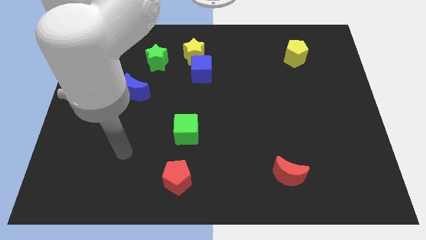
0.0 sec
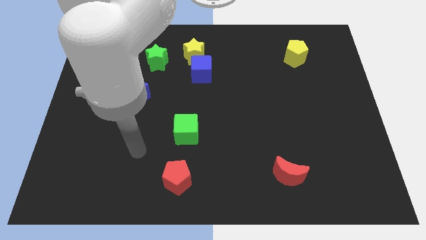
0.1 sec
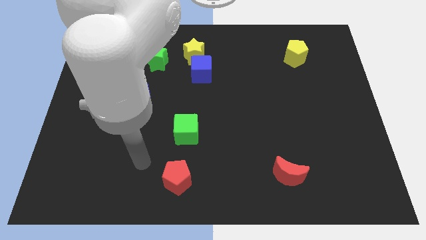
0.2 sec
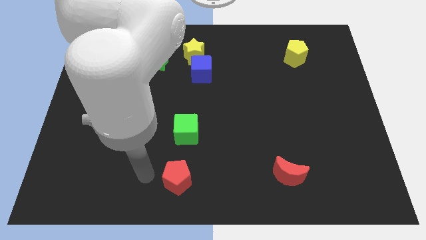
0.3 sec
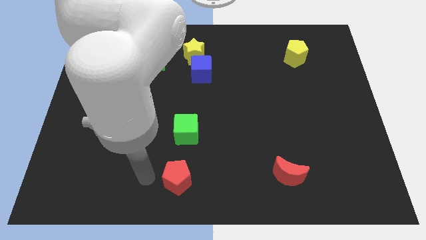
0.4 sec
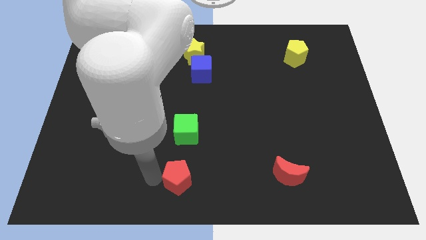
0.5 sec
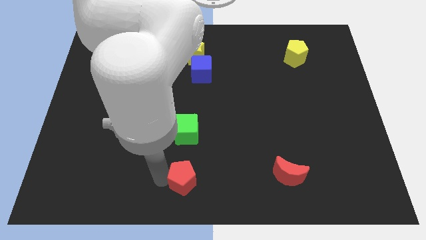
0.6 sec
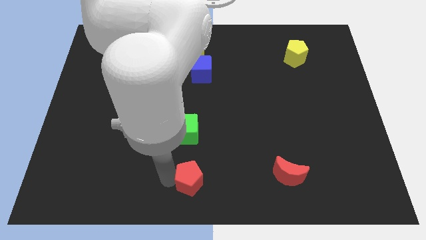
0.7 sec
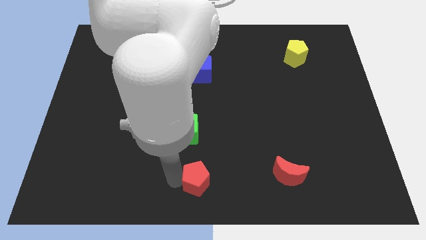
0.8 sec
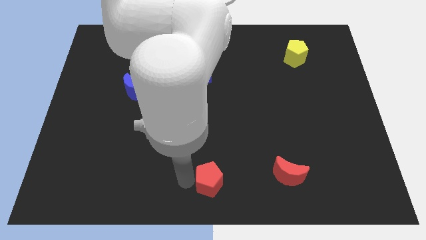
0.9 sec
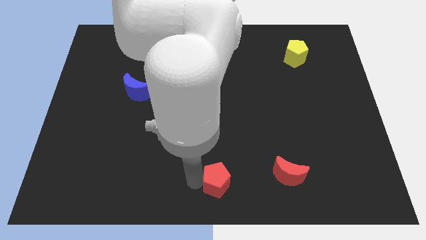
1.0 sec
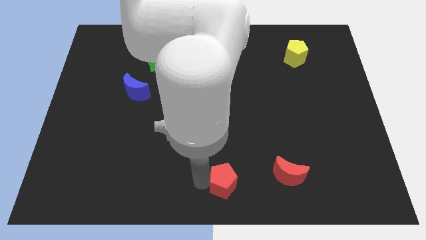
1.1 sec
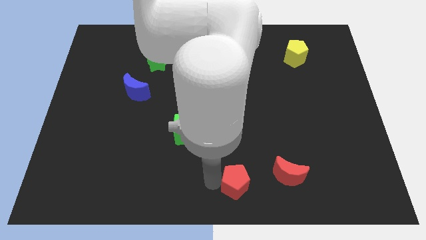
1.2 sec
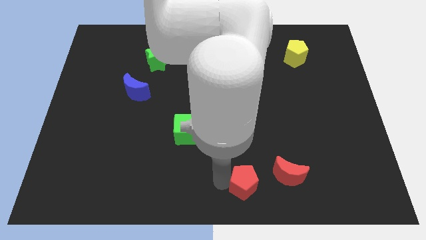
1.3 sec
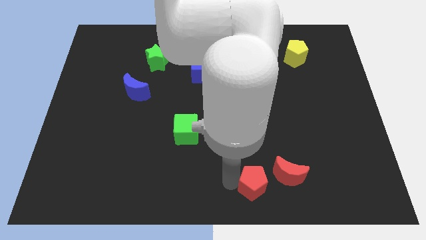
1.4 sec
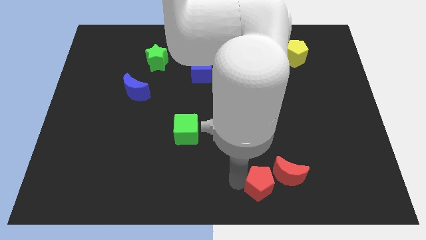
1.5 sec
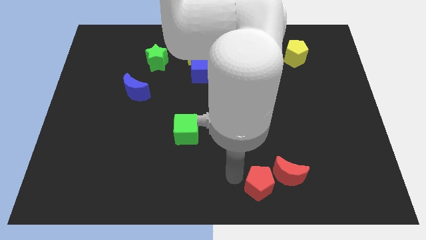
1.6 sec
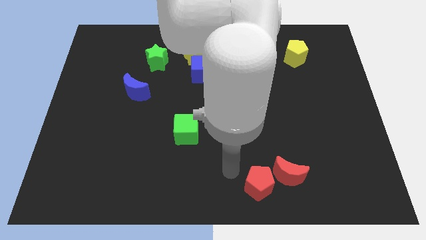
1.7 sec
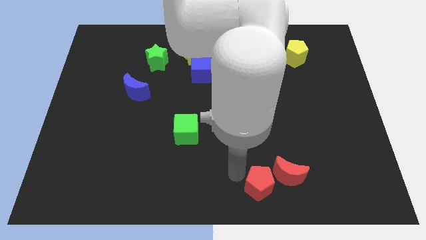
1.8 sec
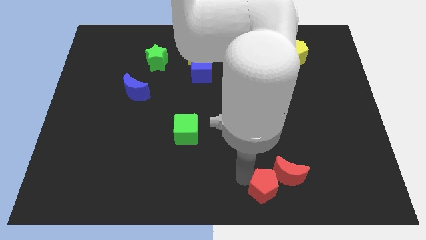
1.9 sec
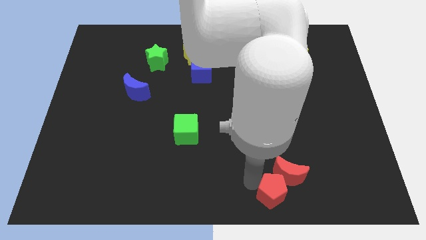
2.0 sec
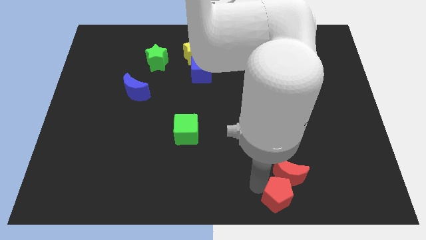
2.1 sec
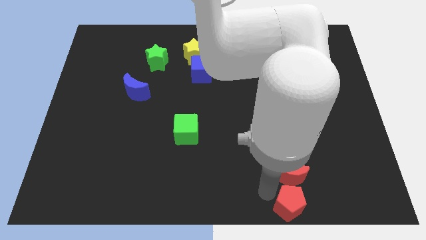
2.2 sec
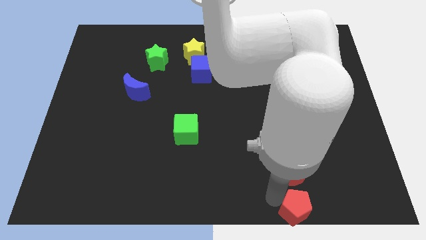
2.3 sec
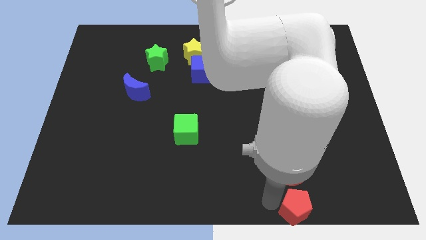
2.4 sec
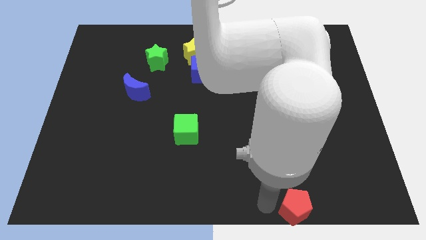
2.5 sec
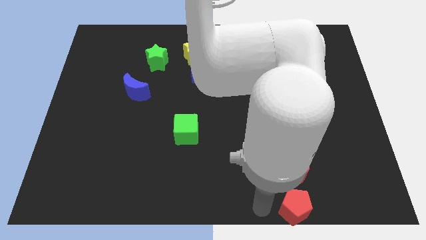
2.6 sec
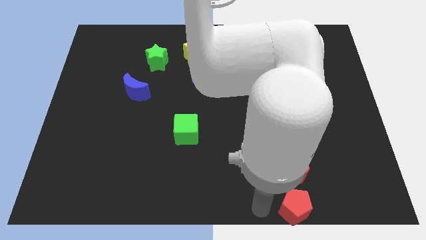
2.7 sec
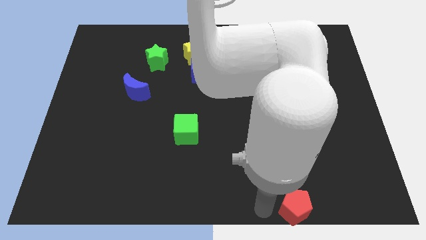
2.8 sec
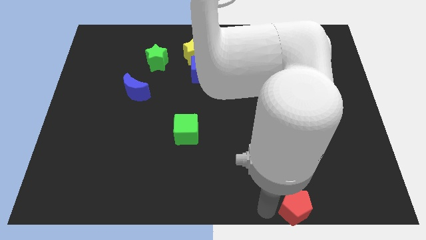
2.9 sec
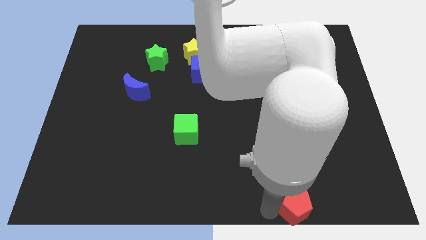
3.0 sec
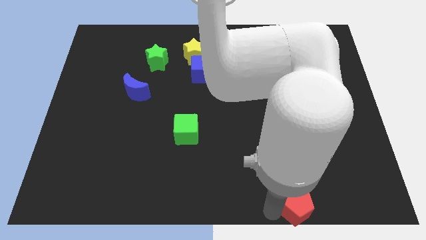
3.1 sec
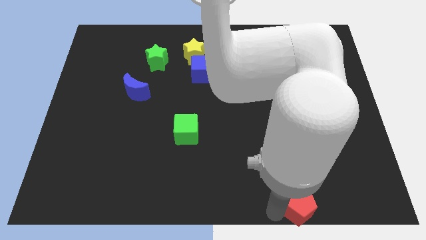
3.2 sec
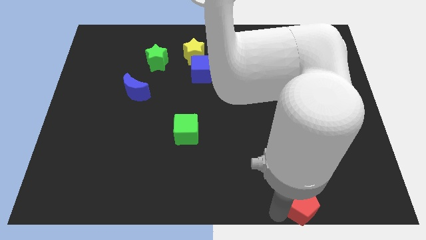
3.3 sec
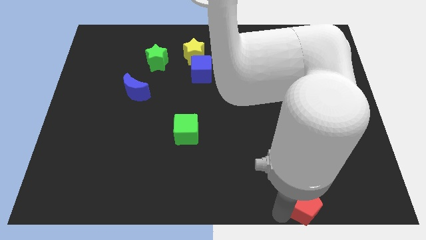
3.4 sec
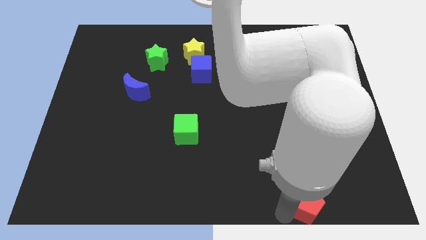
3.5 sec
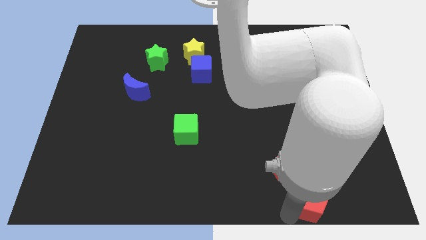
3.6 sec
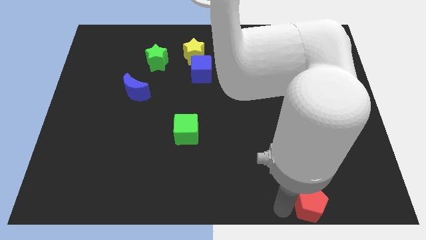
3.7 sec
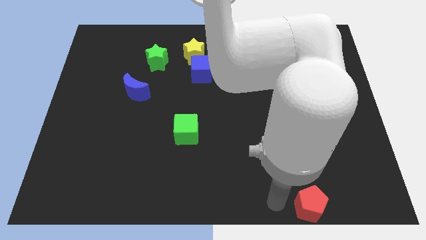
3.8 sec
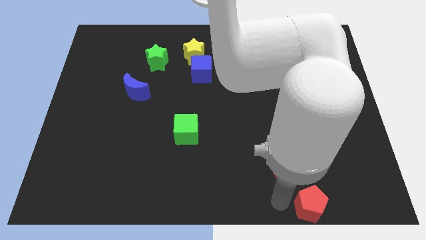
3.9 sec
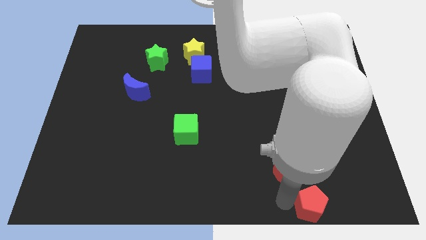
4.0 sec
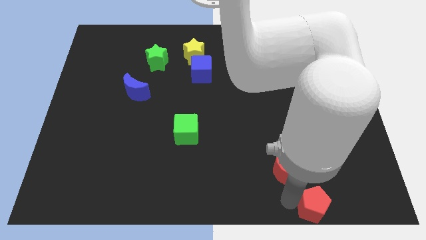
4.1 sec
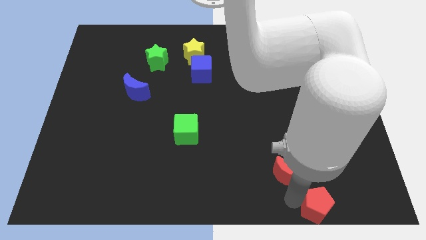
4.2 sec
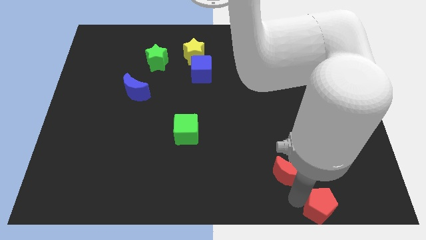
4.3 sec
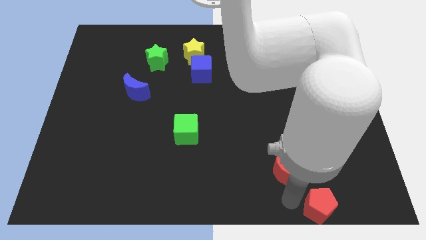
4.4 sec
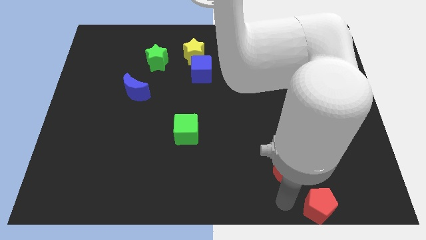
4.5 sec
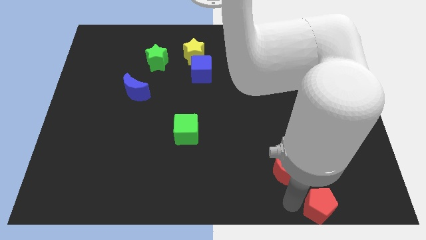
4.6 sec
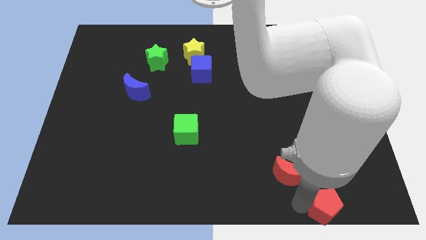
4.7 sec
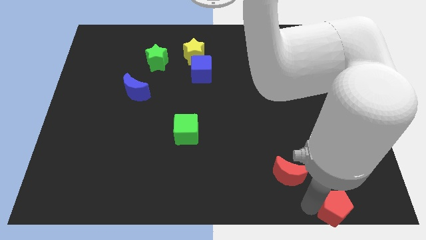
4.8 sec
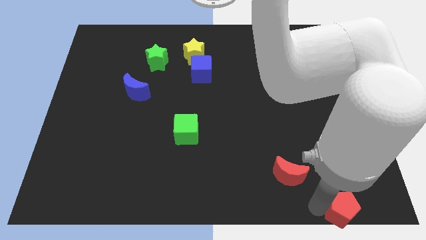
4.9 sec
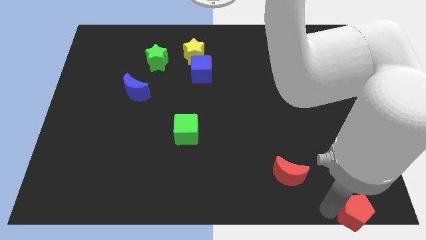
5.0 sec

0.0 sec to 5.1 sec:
push the red pentagon to the lower right corner
